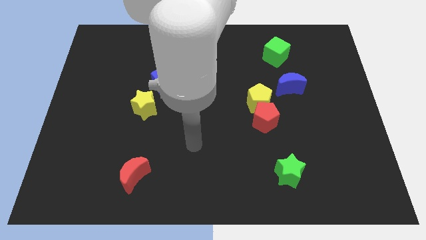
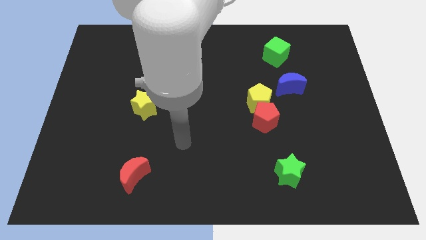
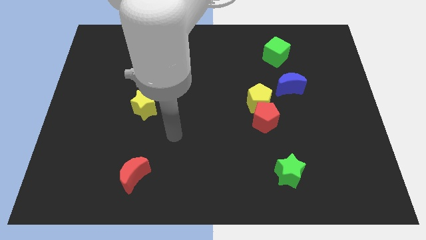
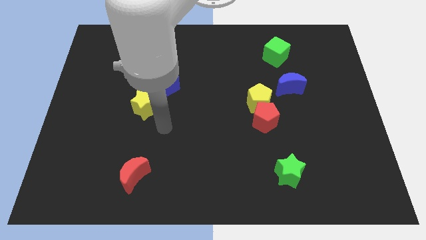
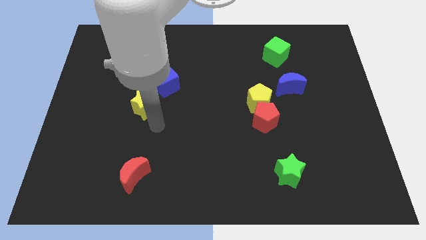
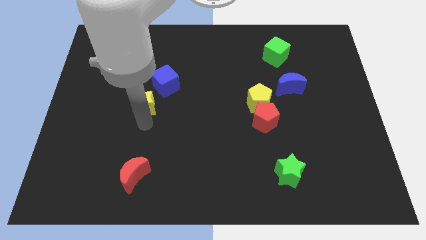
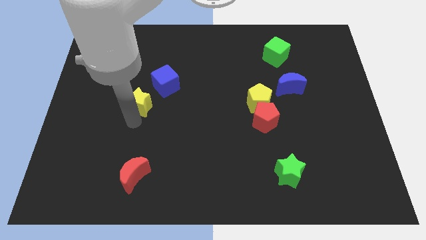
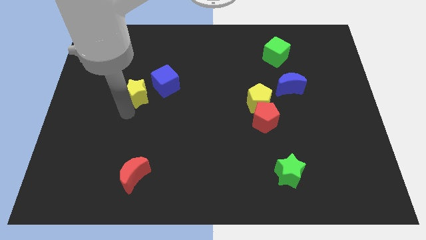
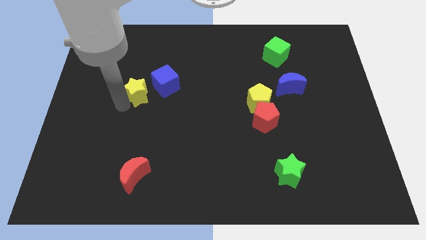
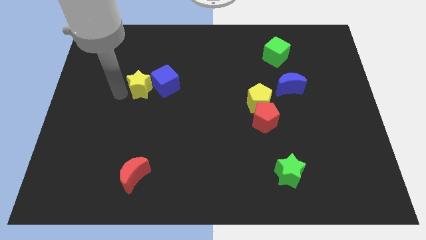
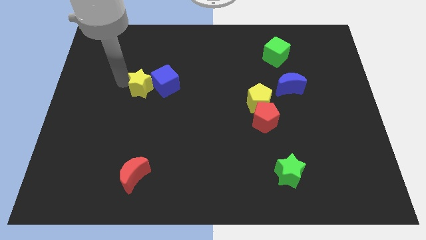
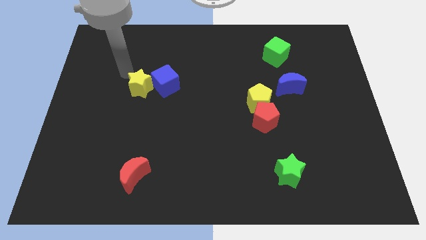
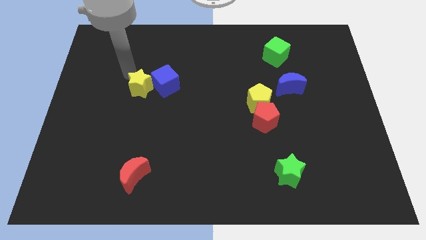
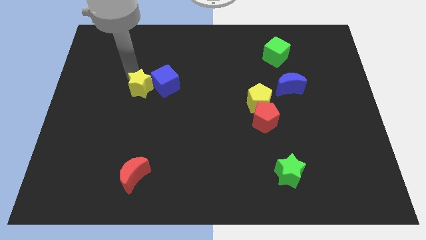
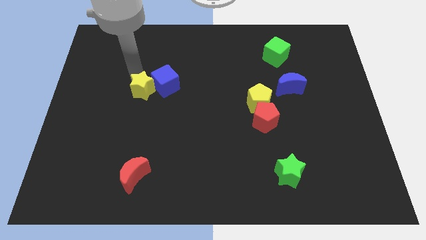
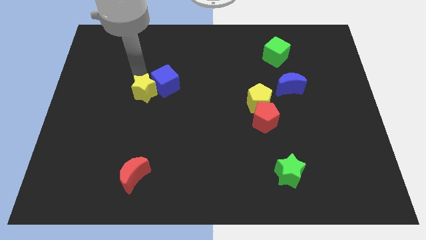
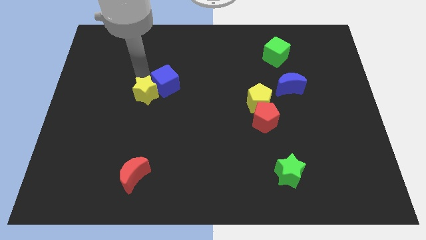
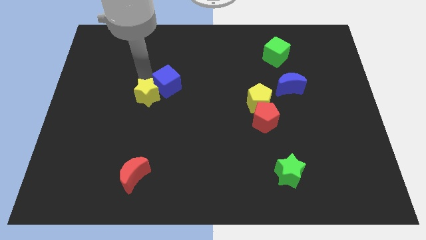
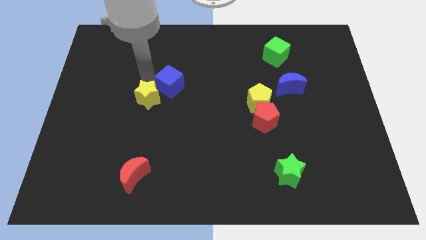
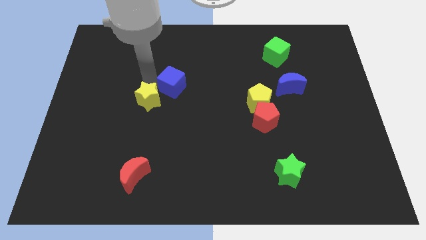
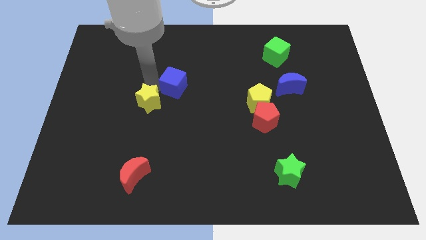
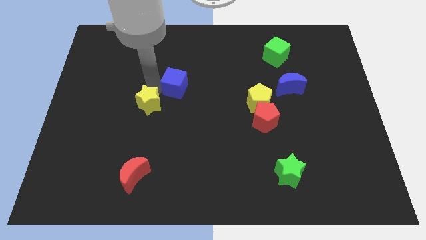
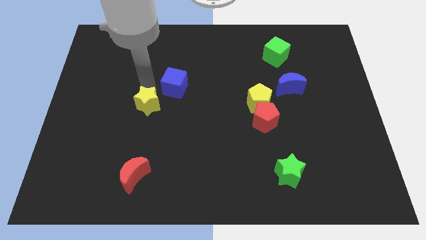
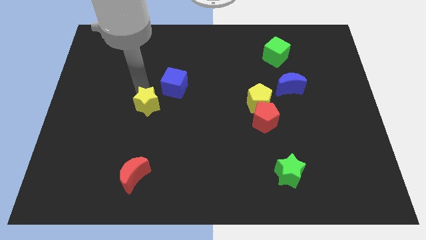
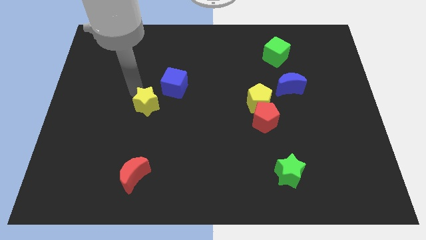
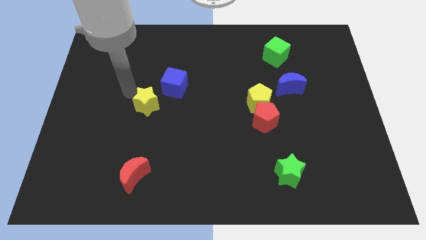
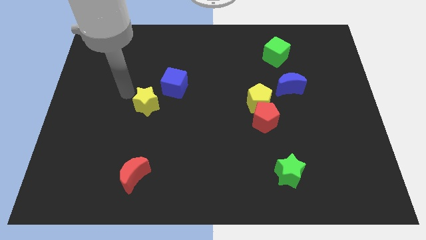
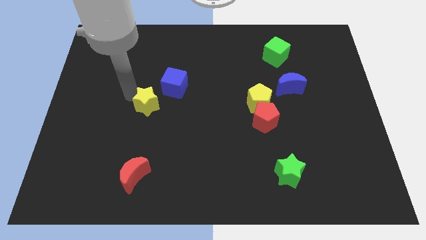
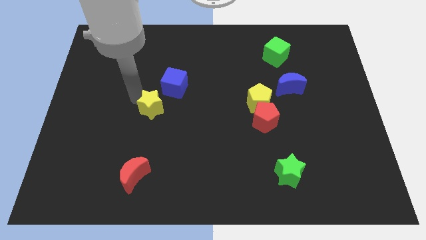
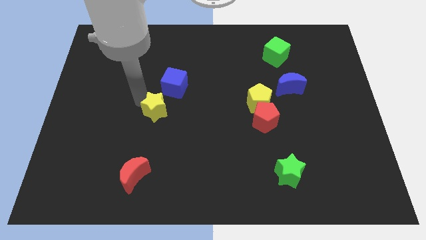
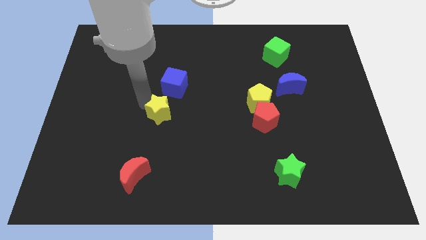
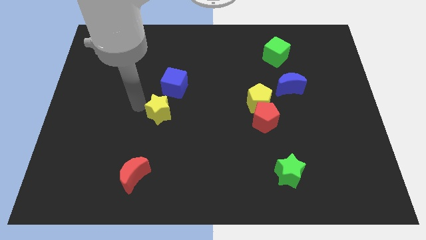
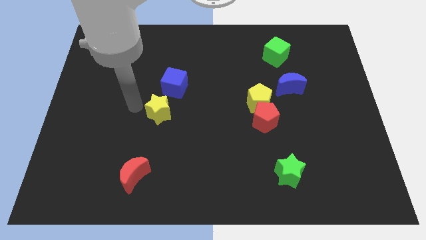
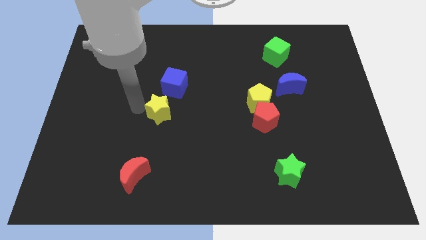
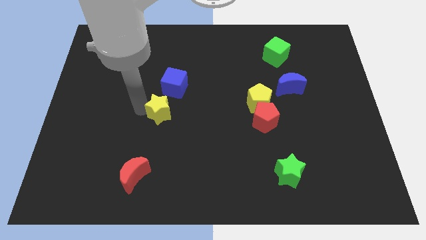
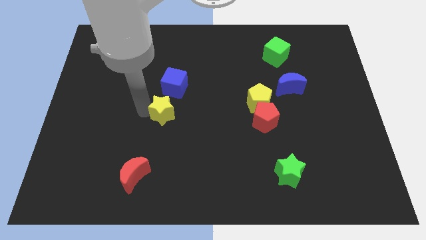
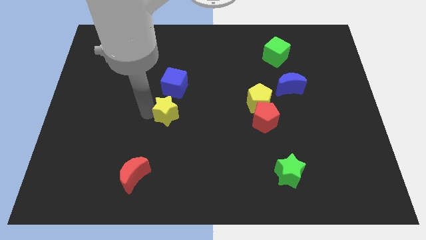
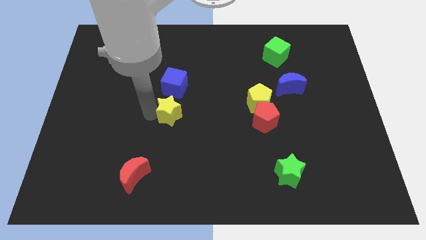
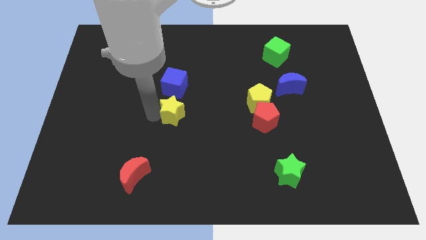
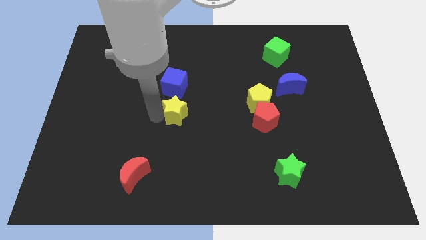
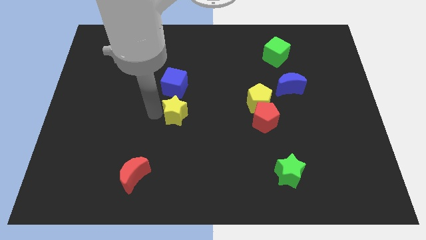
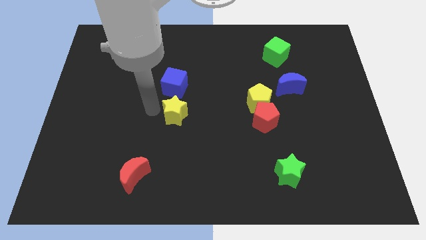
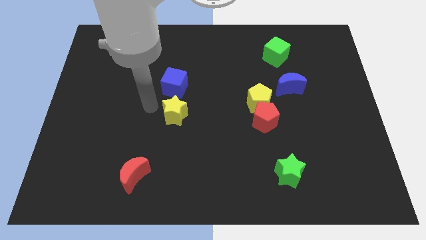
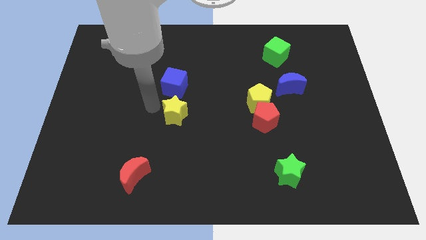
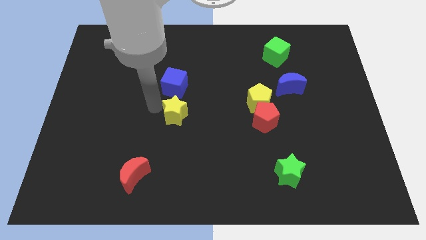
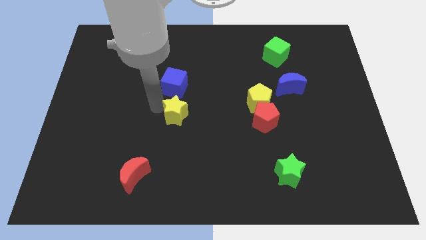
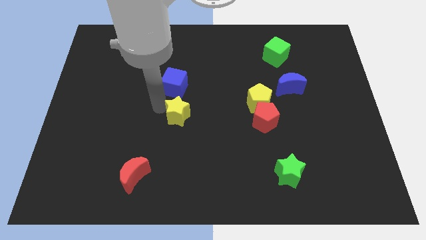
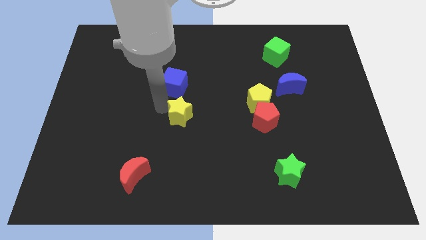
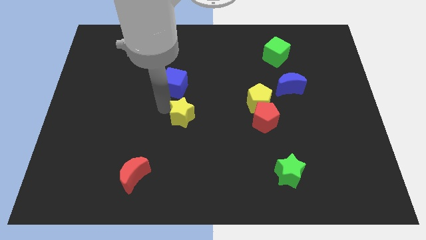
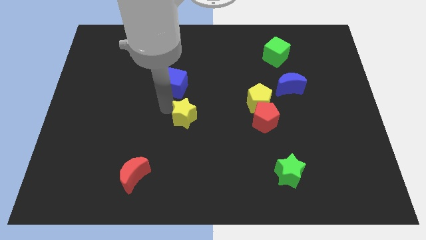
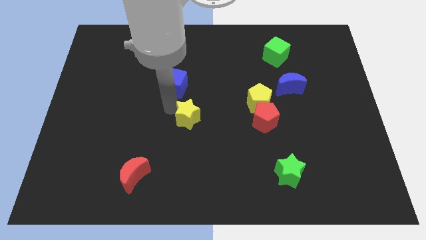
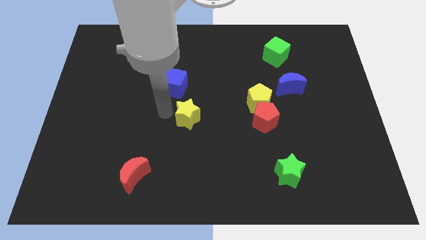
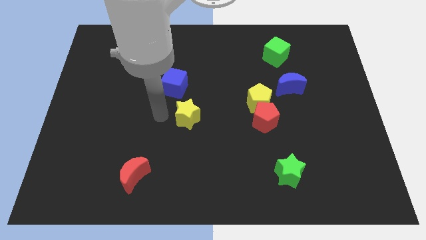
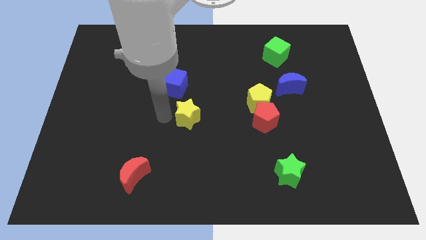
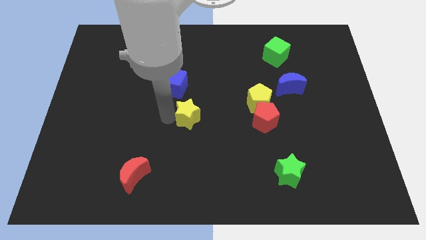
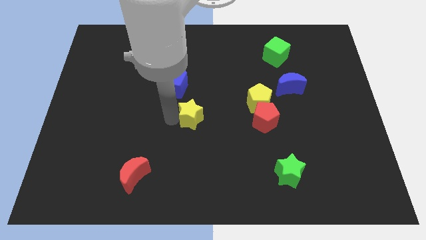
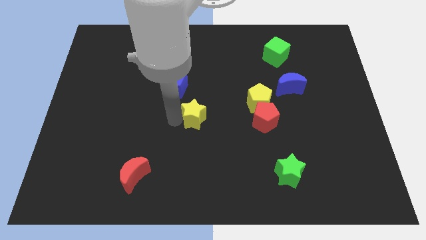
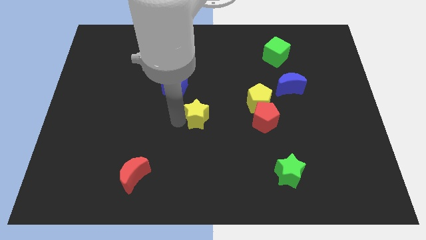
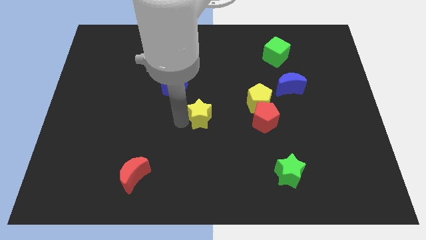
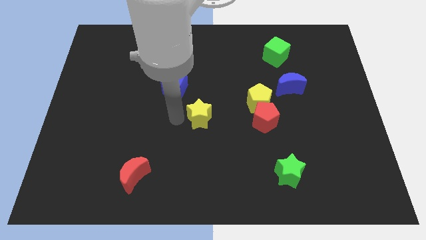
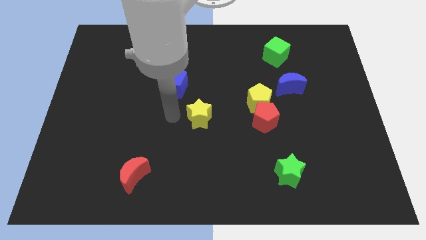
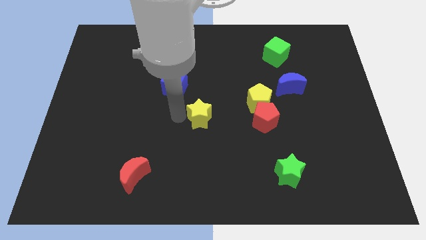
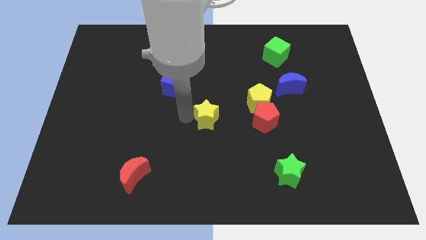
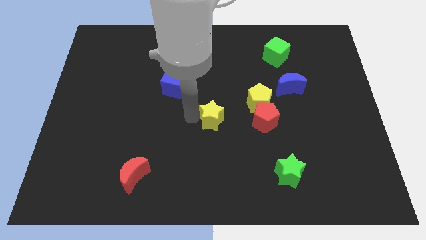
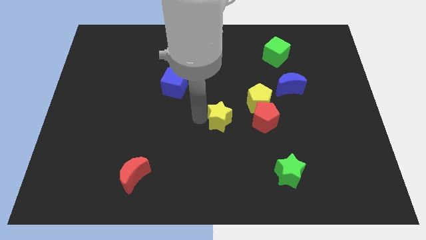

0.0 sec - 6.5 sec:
slide the yellow star diagonally down and to the left of the yellow pentagon

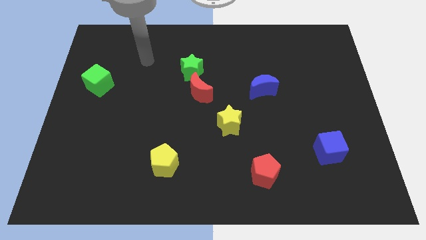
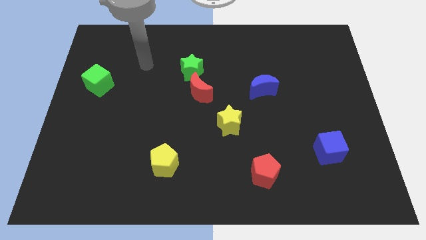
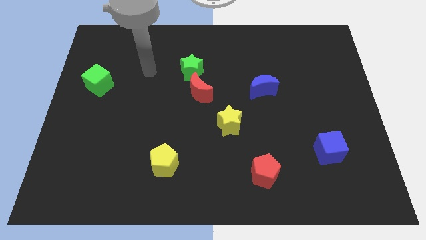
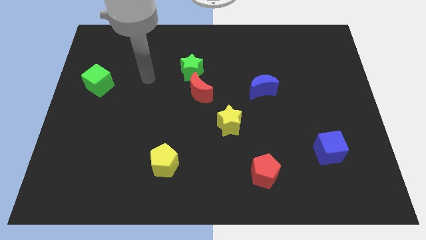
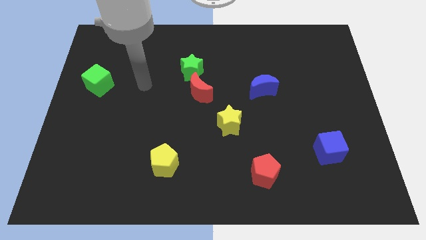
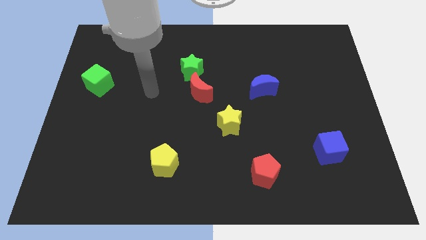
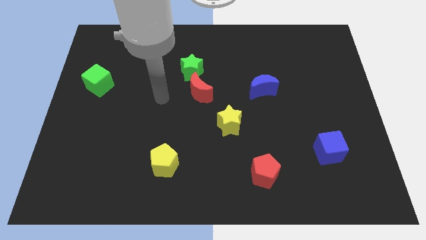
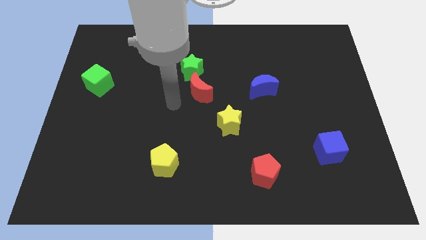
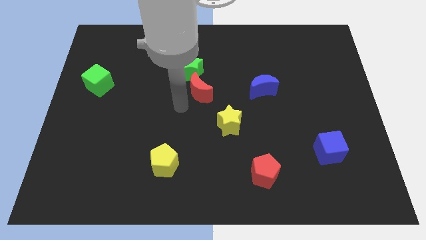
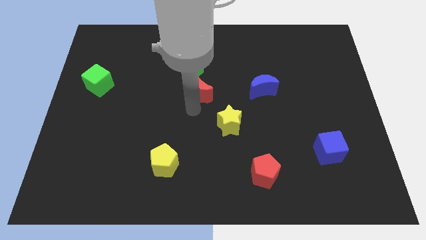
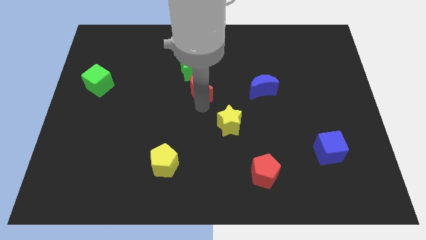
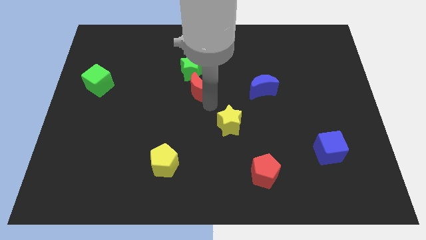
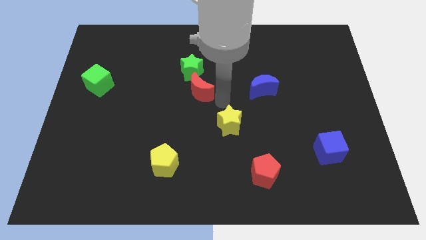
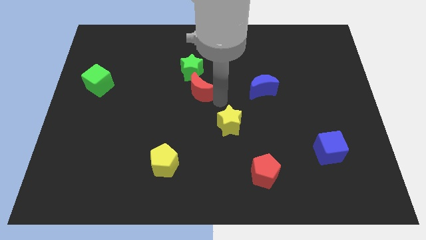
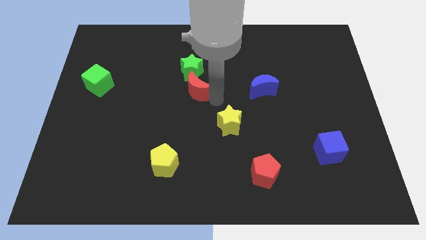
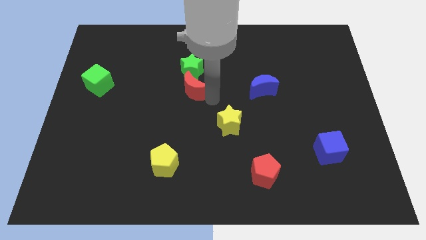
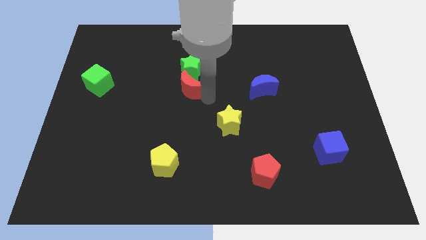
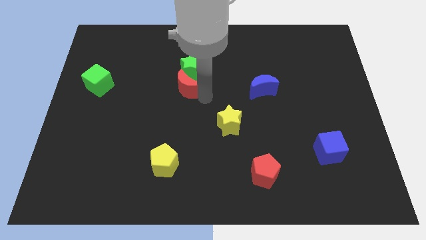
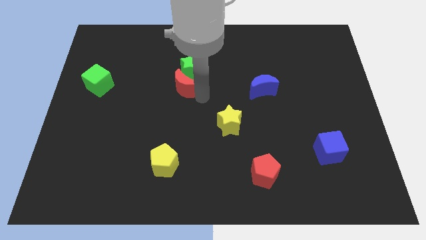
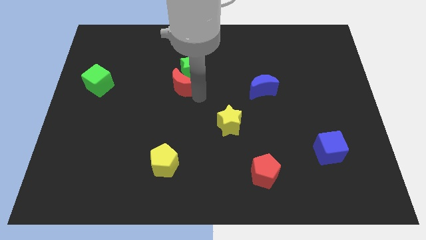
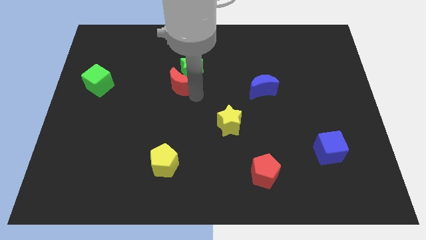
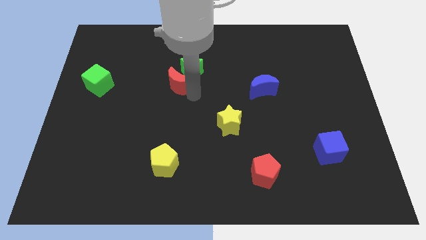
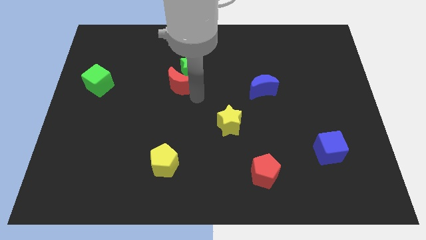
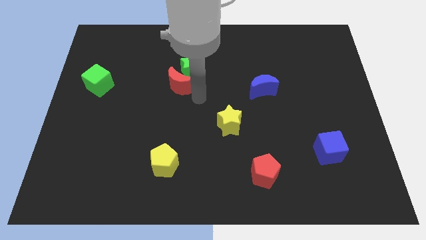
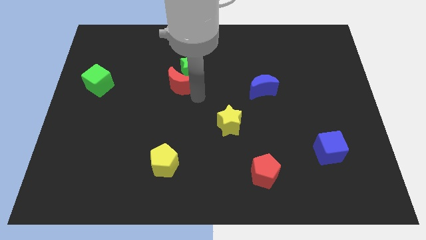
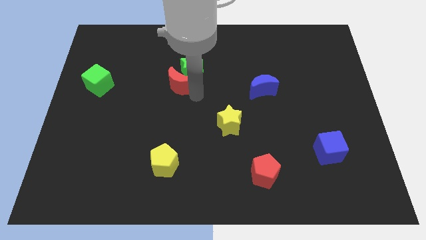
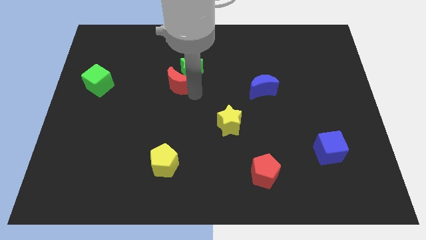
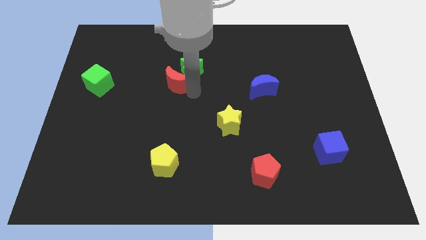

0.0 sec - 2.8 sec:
move the red moon left of the green star
